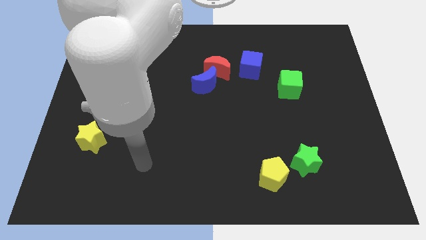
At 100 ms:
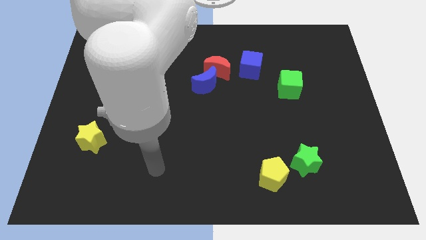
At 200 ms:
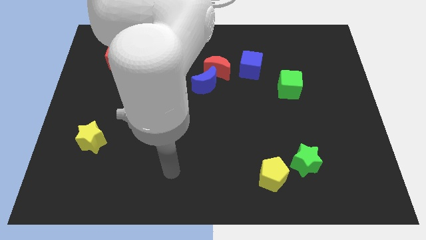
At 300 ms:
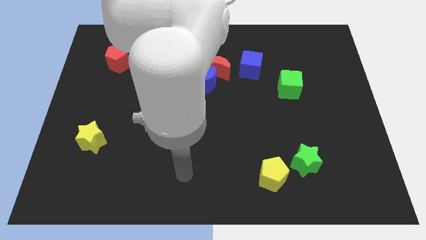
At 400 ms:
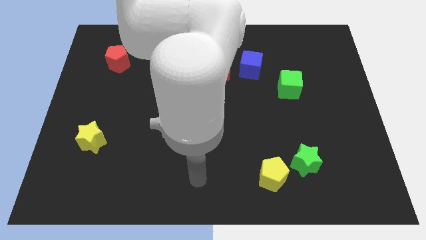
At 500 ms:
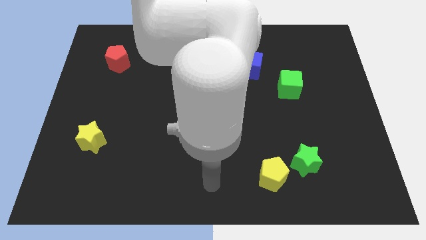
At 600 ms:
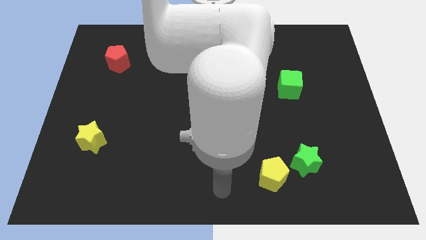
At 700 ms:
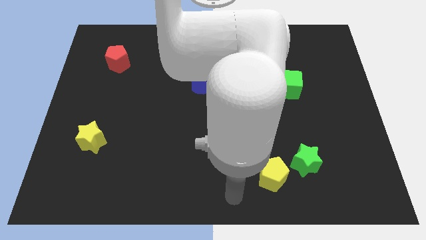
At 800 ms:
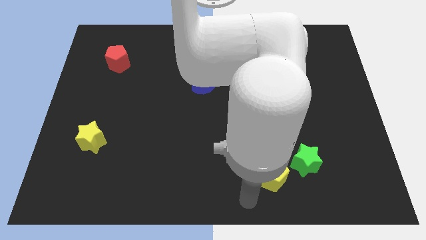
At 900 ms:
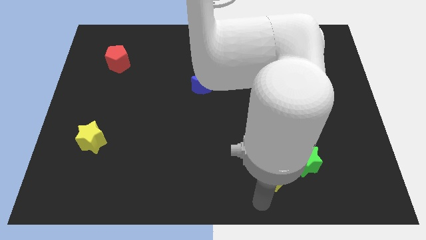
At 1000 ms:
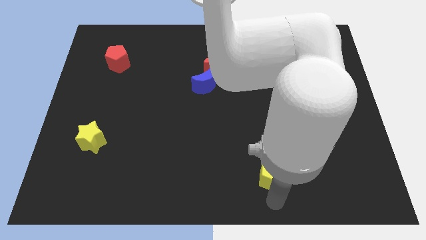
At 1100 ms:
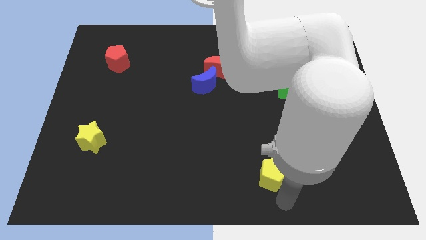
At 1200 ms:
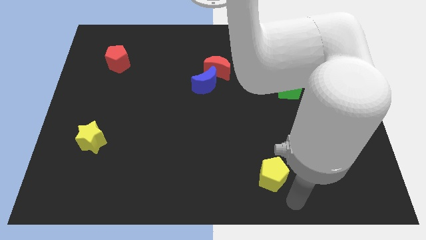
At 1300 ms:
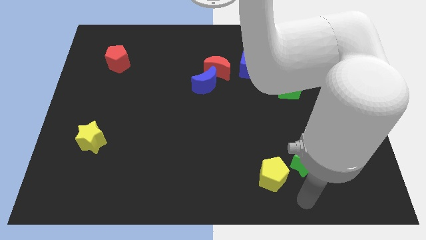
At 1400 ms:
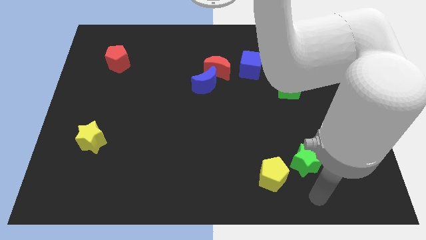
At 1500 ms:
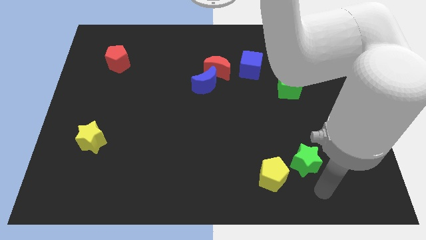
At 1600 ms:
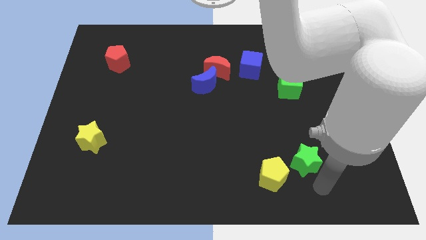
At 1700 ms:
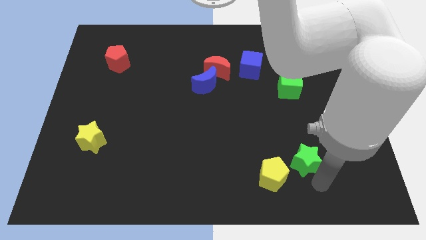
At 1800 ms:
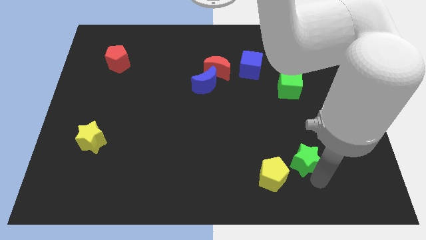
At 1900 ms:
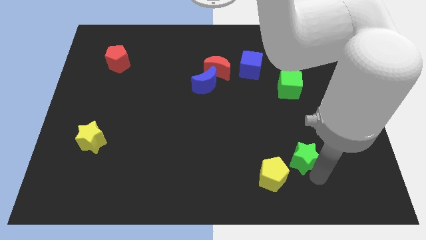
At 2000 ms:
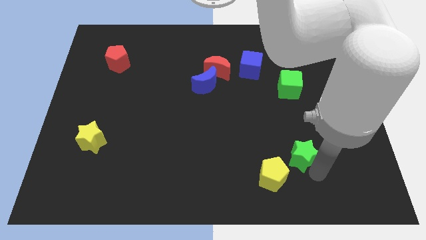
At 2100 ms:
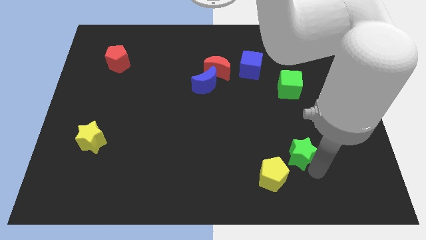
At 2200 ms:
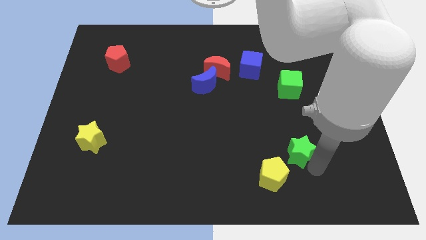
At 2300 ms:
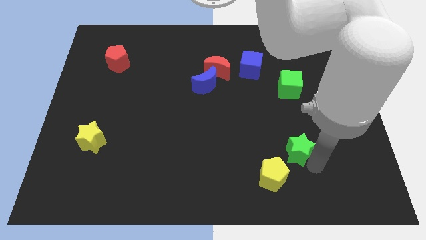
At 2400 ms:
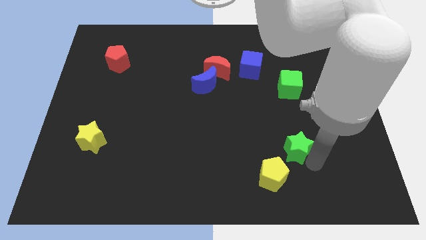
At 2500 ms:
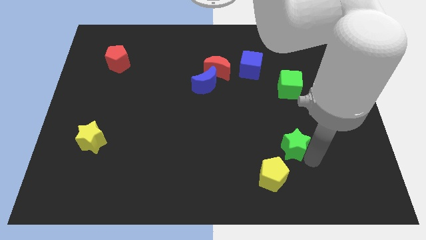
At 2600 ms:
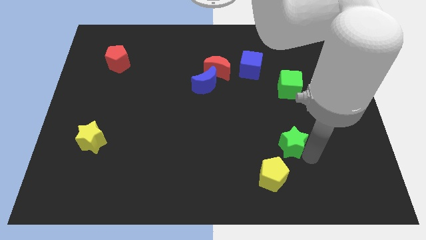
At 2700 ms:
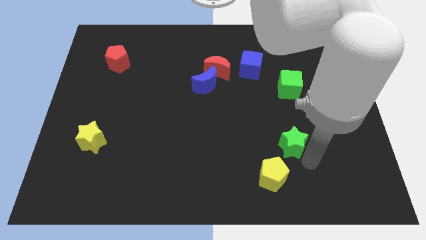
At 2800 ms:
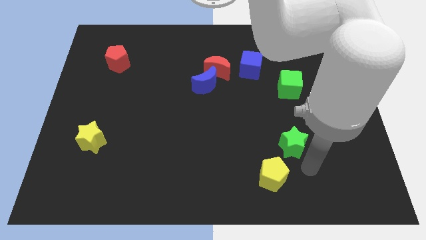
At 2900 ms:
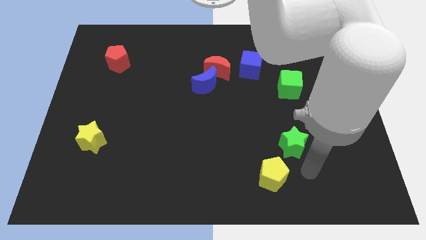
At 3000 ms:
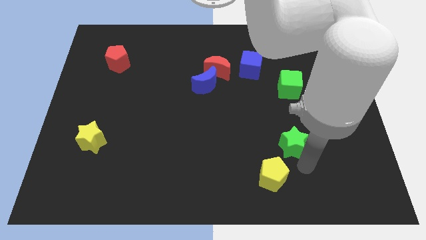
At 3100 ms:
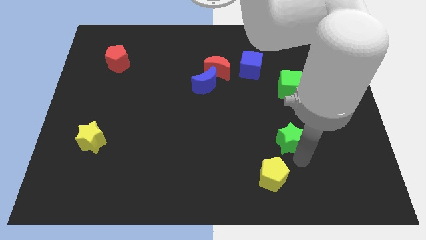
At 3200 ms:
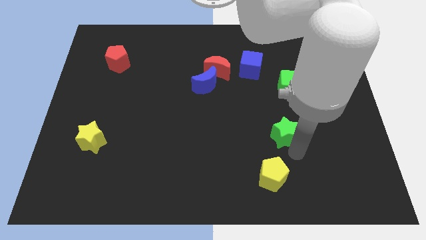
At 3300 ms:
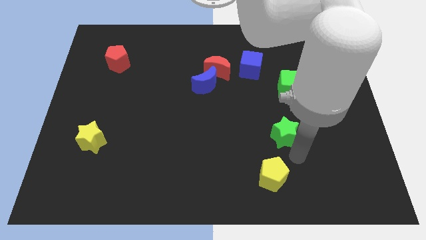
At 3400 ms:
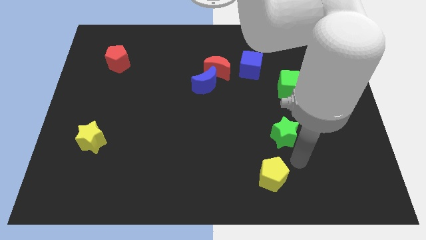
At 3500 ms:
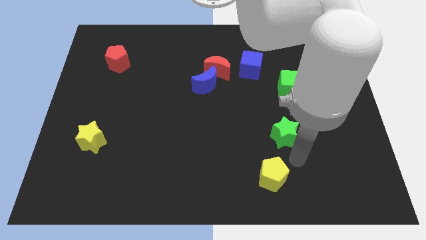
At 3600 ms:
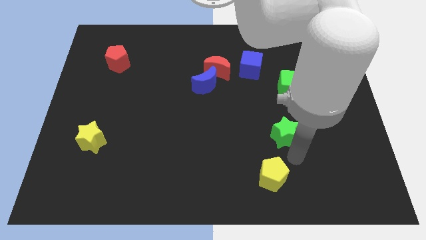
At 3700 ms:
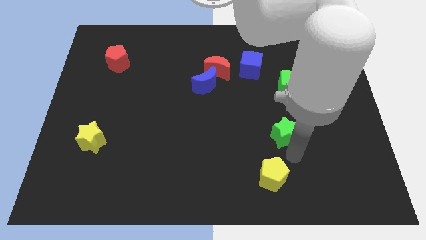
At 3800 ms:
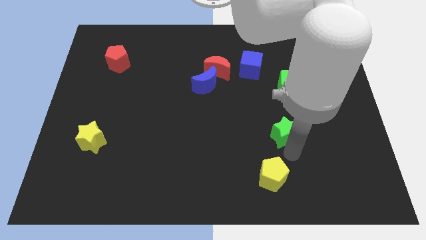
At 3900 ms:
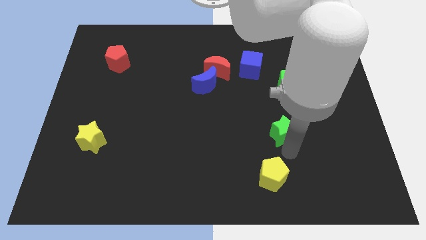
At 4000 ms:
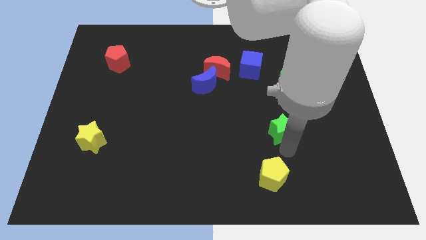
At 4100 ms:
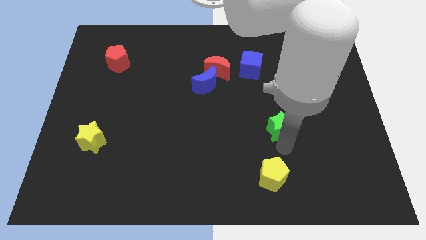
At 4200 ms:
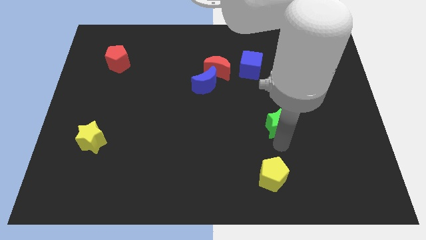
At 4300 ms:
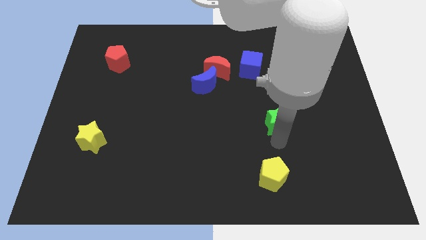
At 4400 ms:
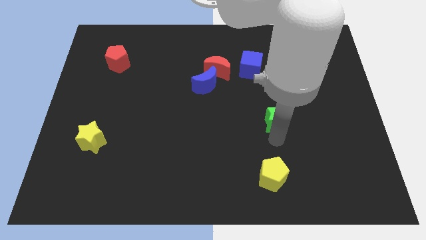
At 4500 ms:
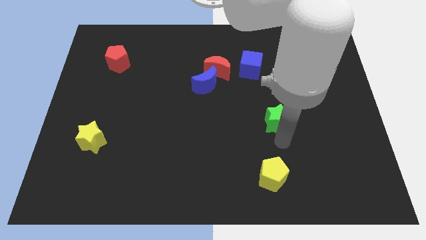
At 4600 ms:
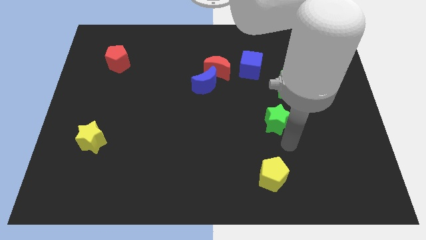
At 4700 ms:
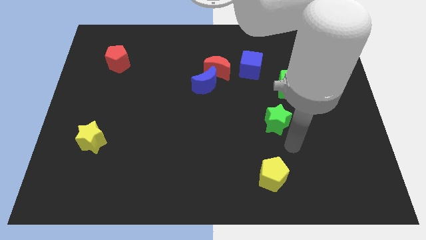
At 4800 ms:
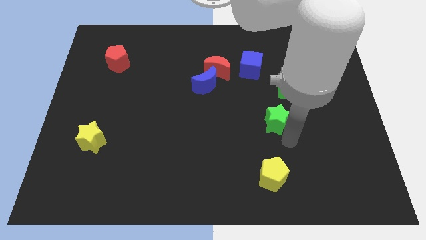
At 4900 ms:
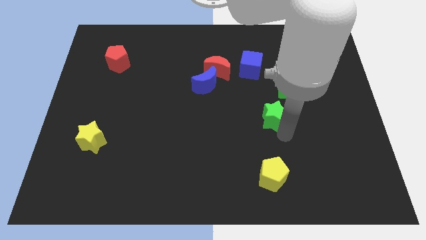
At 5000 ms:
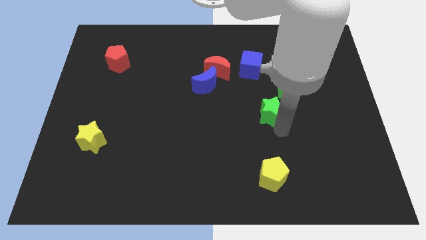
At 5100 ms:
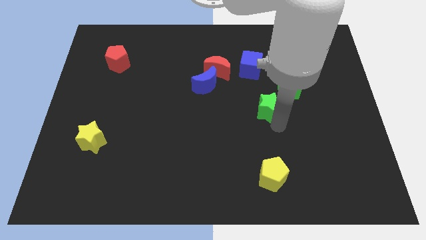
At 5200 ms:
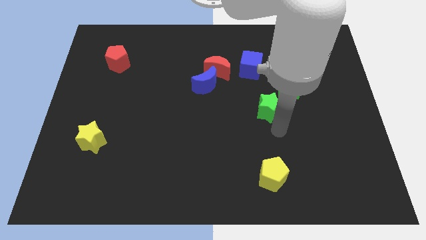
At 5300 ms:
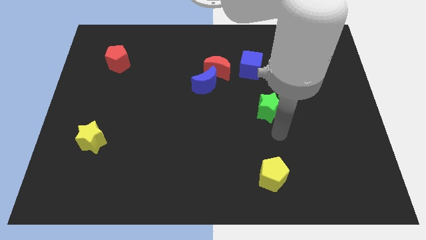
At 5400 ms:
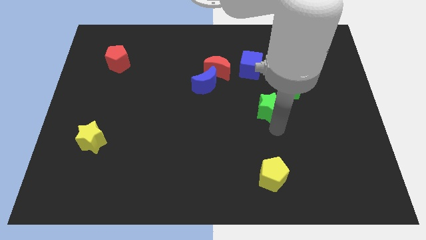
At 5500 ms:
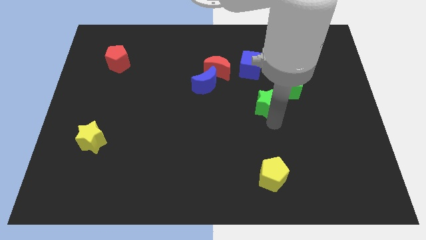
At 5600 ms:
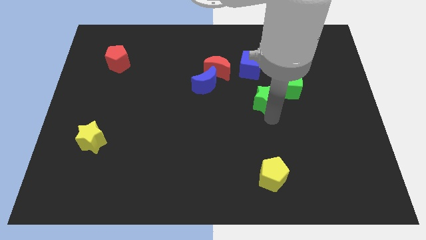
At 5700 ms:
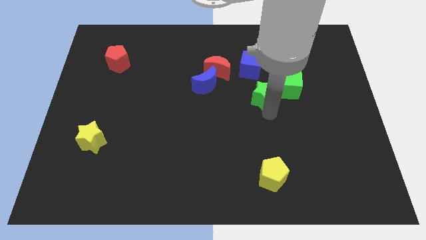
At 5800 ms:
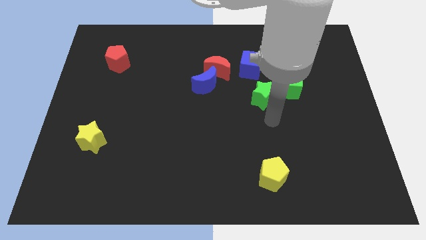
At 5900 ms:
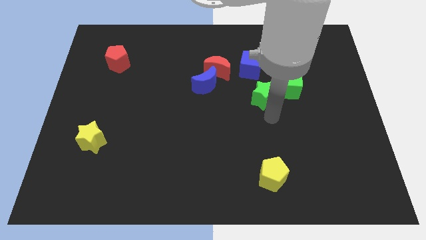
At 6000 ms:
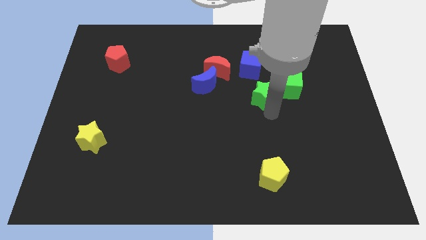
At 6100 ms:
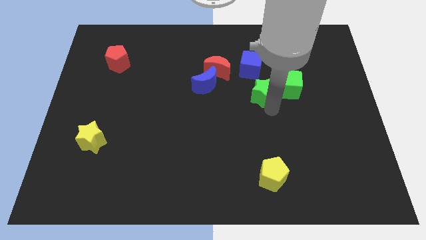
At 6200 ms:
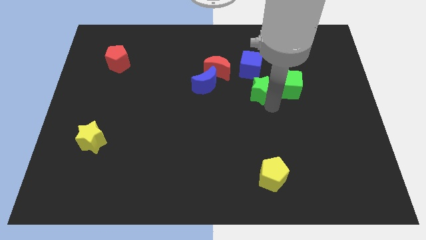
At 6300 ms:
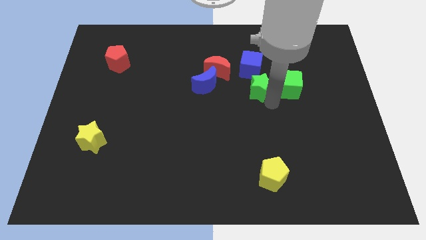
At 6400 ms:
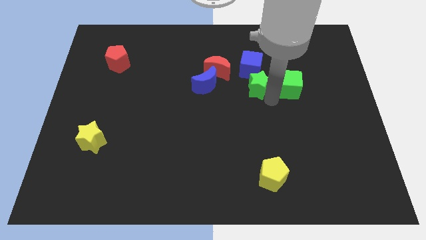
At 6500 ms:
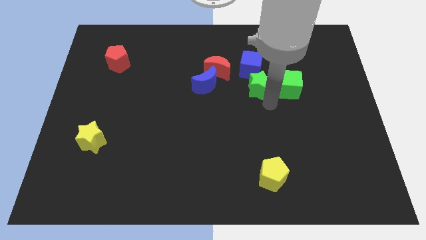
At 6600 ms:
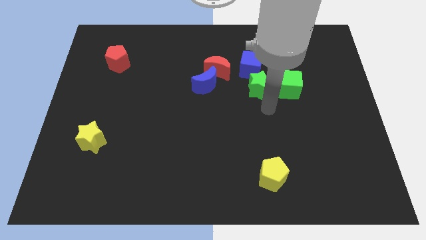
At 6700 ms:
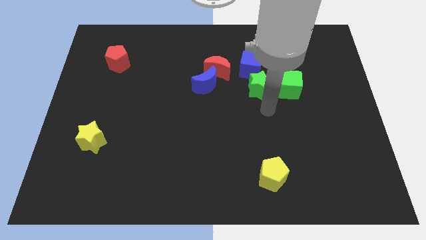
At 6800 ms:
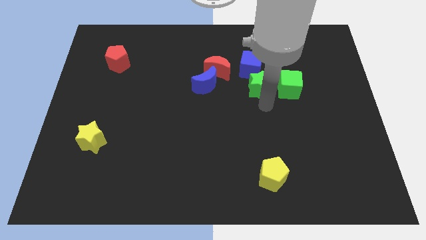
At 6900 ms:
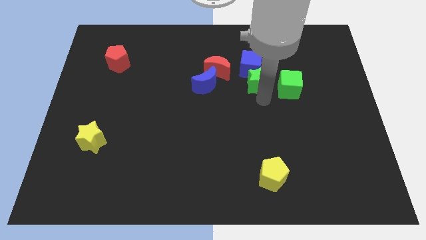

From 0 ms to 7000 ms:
move the green star to the blue cube
